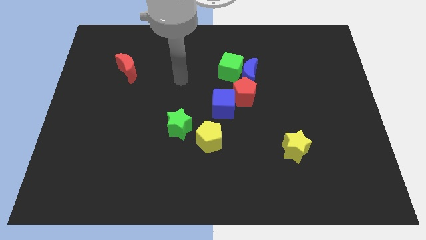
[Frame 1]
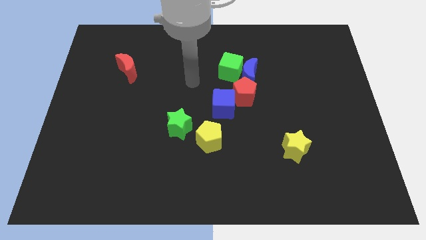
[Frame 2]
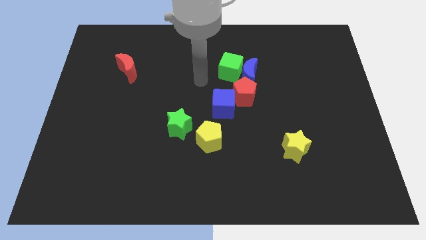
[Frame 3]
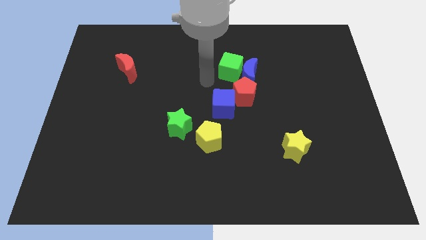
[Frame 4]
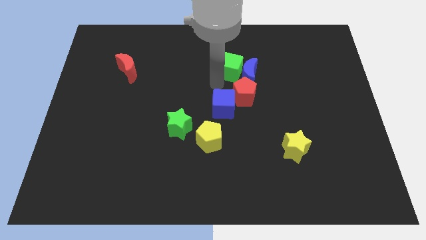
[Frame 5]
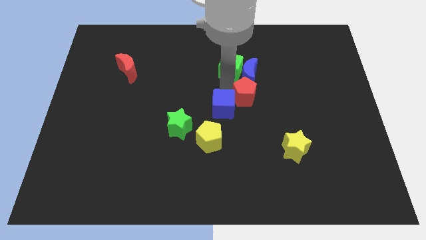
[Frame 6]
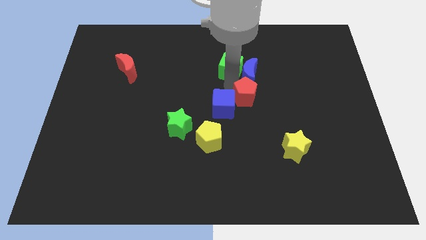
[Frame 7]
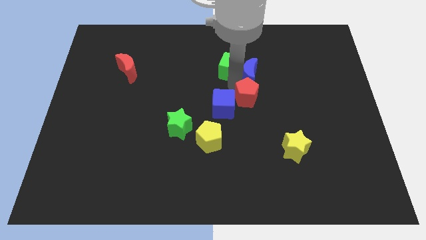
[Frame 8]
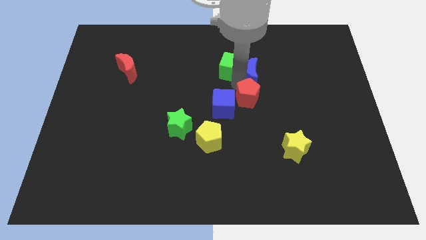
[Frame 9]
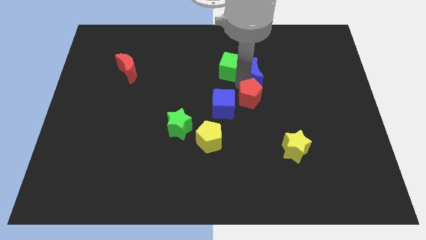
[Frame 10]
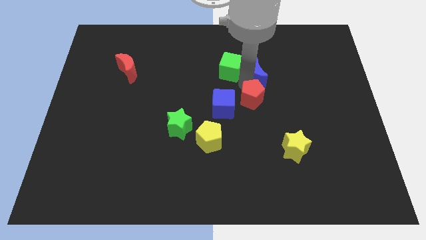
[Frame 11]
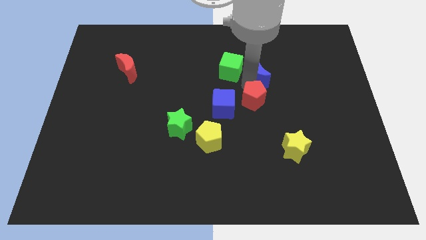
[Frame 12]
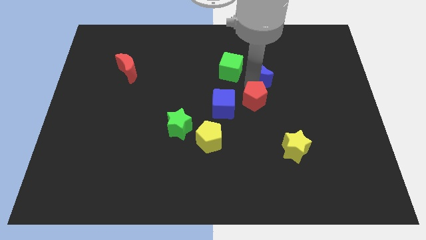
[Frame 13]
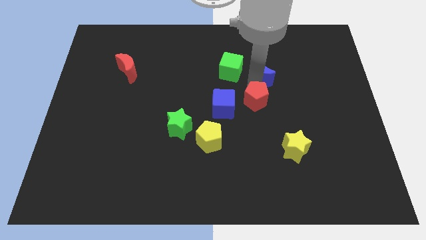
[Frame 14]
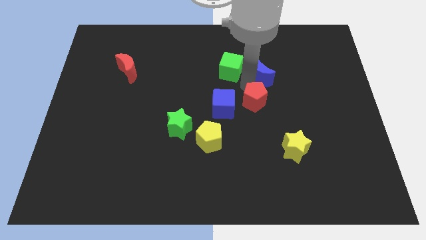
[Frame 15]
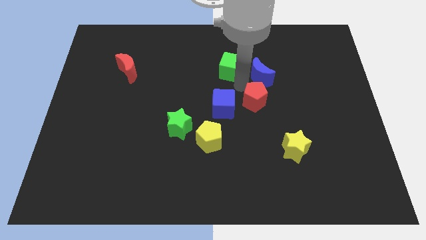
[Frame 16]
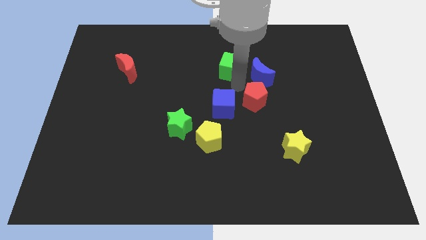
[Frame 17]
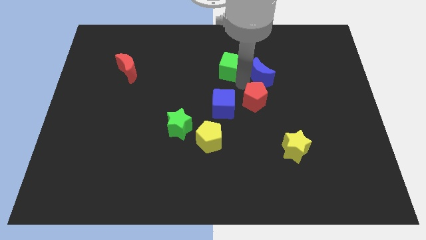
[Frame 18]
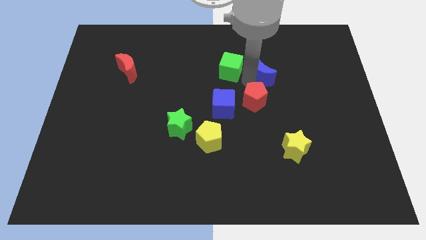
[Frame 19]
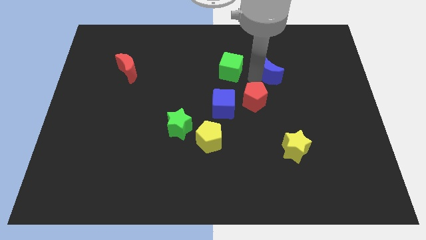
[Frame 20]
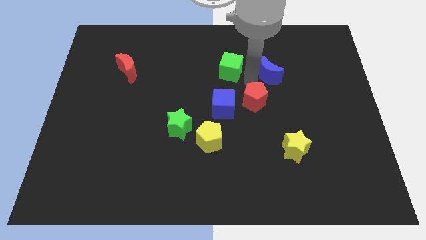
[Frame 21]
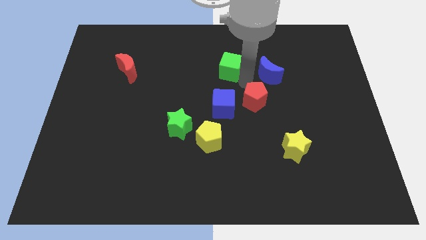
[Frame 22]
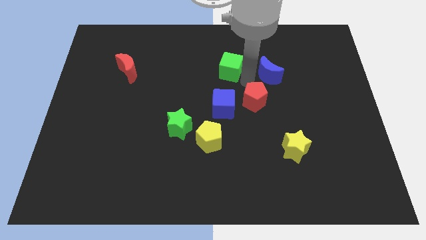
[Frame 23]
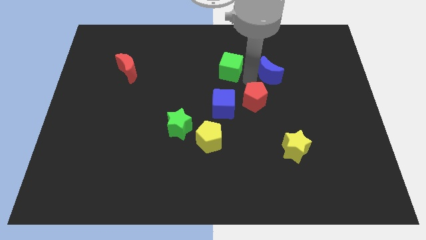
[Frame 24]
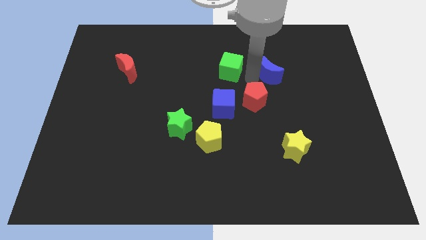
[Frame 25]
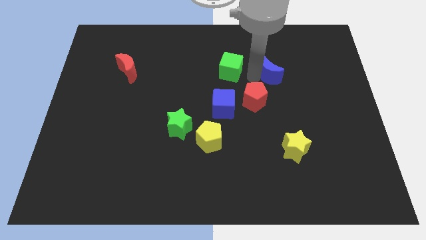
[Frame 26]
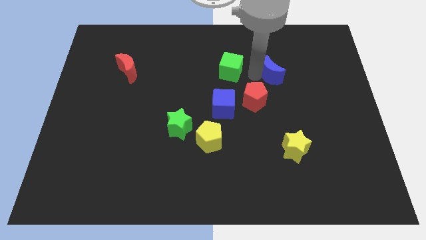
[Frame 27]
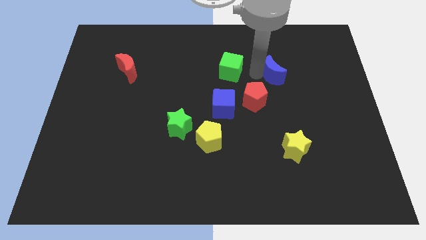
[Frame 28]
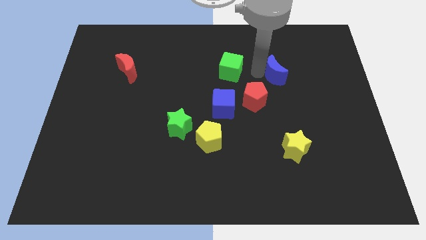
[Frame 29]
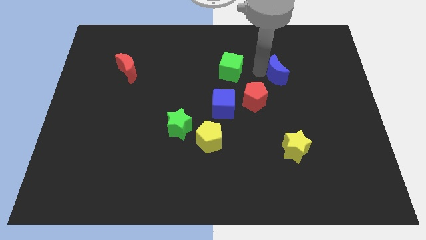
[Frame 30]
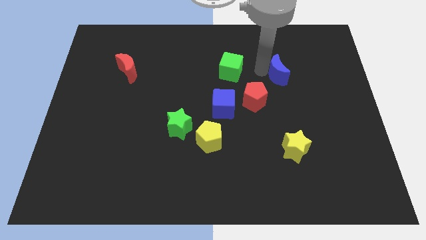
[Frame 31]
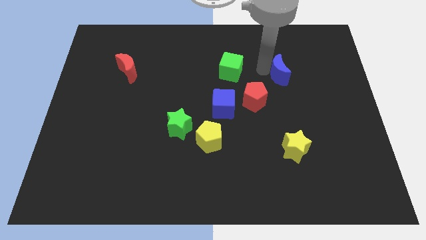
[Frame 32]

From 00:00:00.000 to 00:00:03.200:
separate the blue moon from the green cube and red pentagon

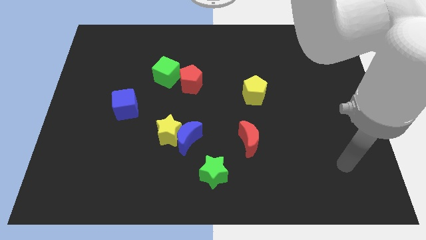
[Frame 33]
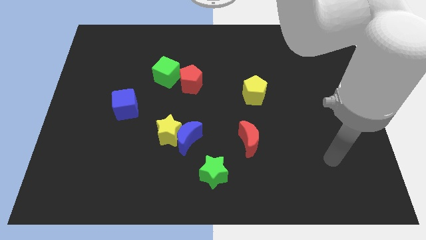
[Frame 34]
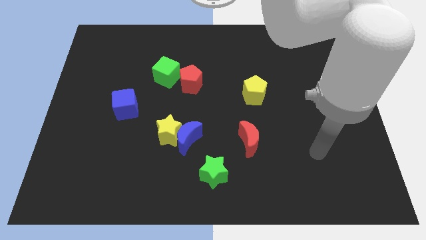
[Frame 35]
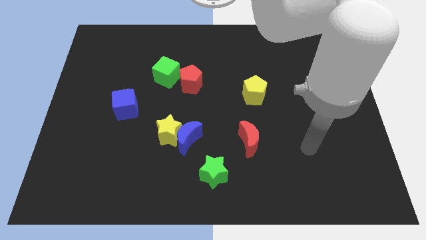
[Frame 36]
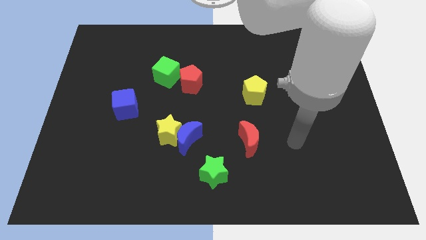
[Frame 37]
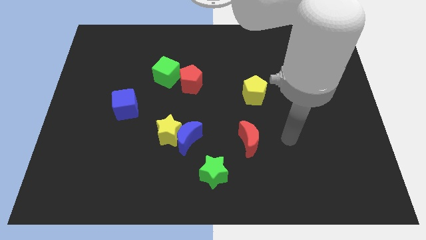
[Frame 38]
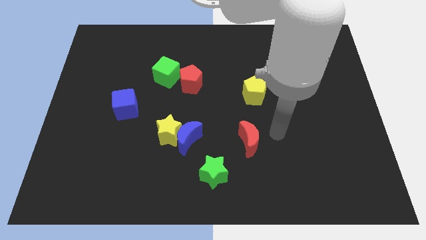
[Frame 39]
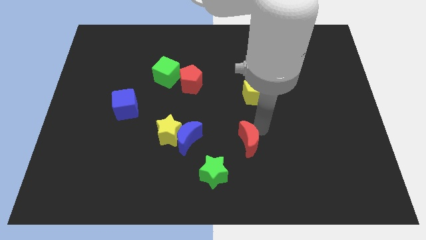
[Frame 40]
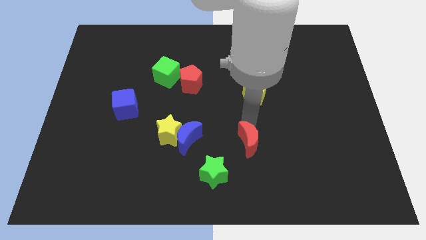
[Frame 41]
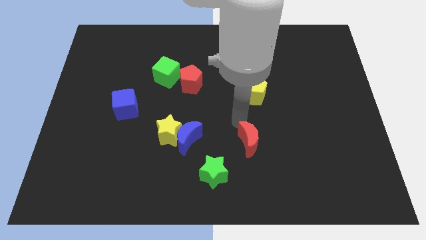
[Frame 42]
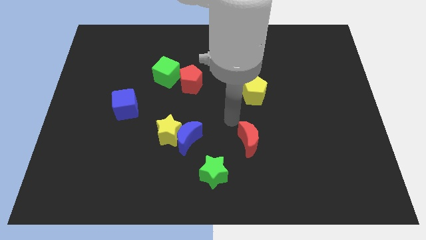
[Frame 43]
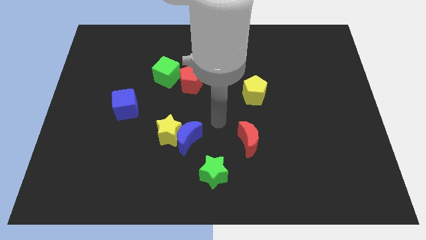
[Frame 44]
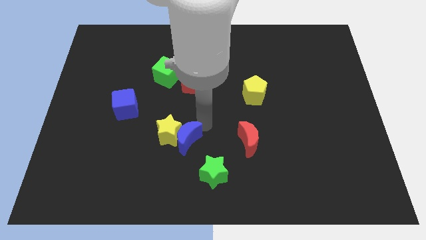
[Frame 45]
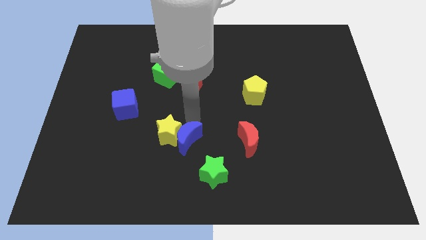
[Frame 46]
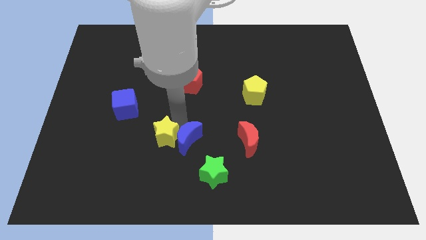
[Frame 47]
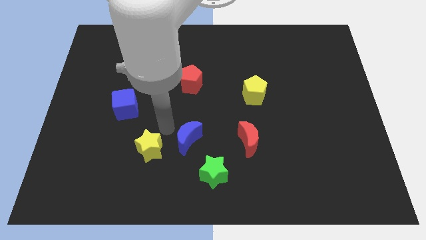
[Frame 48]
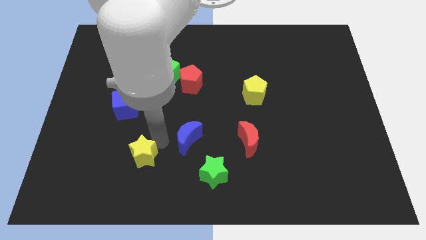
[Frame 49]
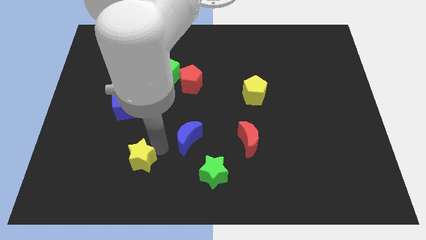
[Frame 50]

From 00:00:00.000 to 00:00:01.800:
separate the blue moon from the yellow star

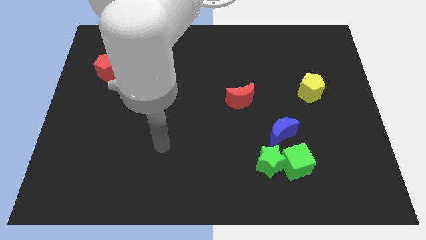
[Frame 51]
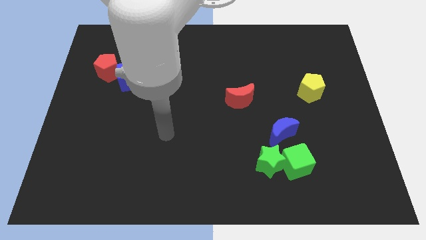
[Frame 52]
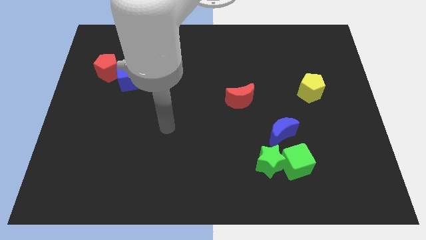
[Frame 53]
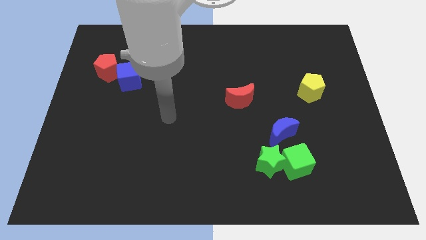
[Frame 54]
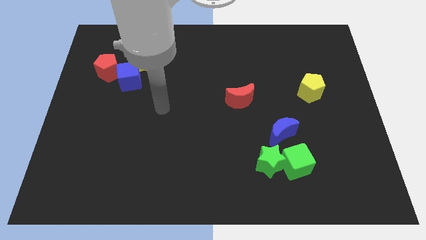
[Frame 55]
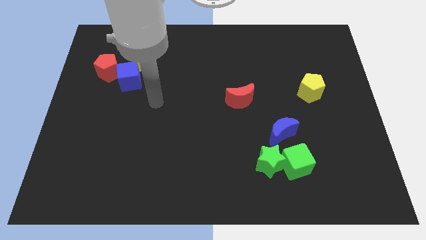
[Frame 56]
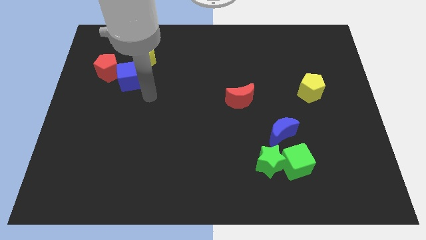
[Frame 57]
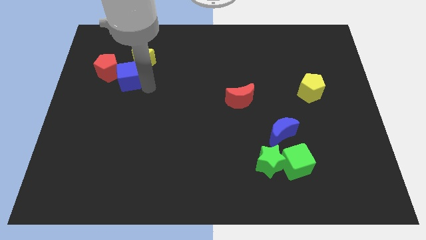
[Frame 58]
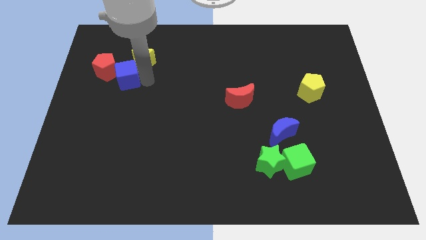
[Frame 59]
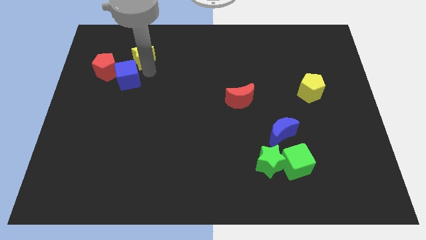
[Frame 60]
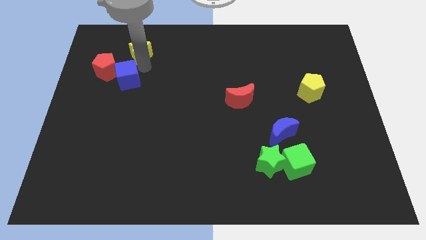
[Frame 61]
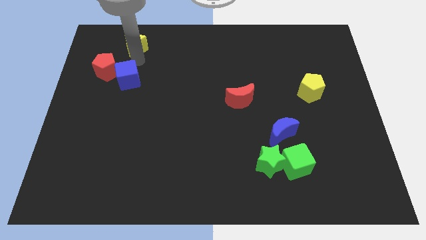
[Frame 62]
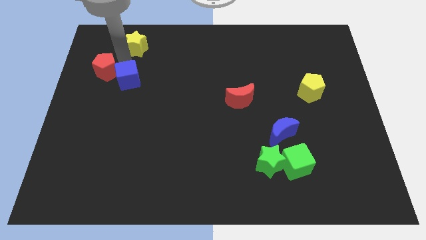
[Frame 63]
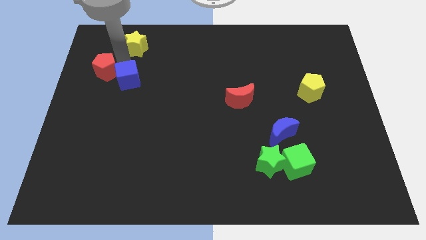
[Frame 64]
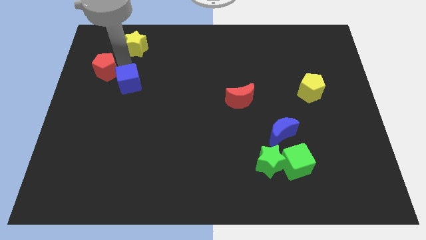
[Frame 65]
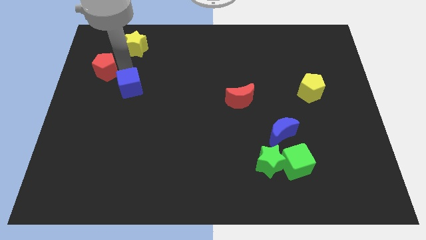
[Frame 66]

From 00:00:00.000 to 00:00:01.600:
pull the blue cube apart from the red pentagon and yellow star

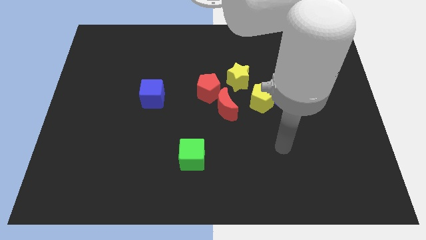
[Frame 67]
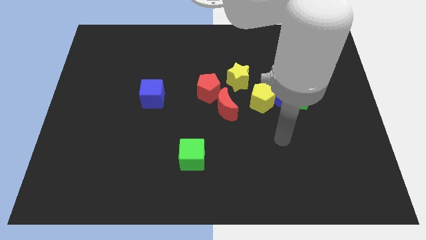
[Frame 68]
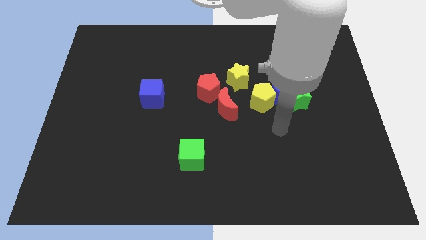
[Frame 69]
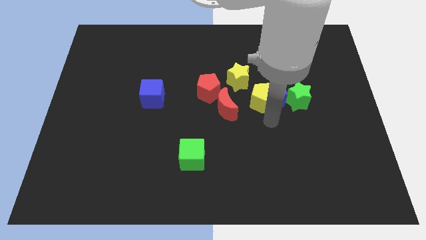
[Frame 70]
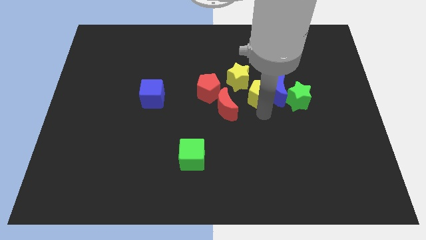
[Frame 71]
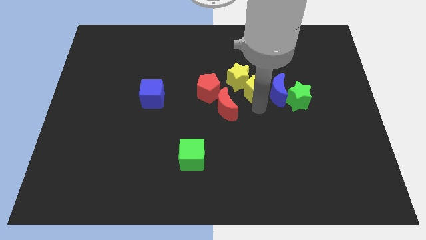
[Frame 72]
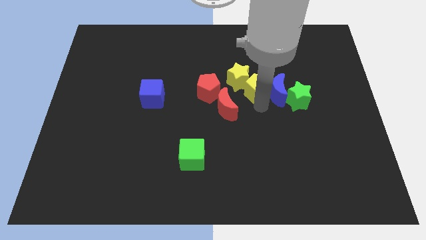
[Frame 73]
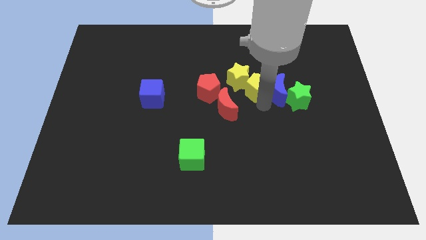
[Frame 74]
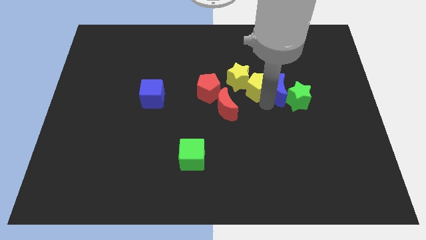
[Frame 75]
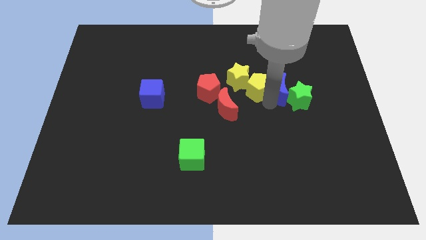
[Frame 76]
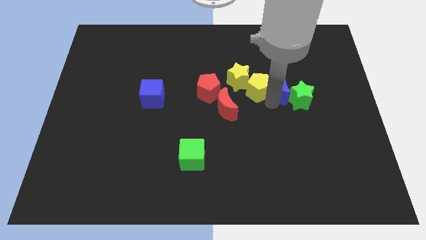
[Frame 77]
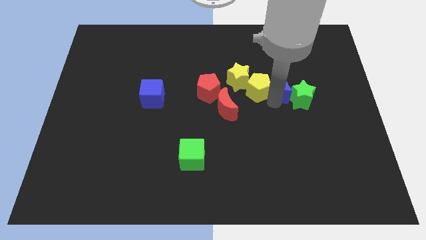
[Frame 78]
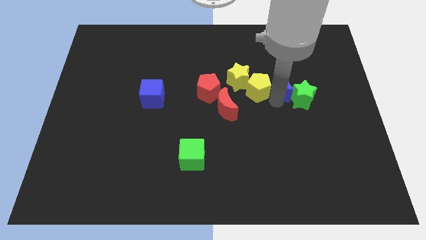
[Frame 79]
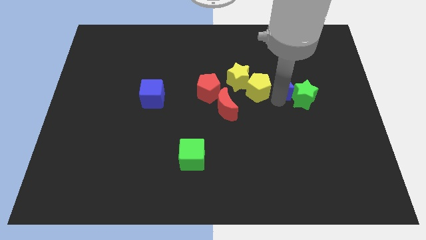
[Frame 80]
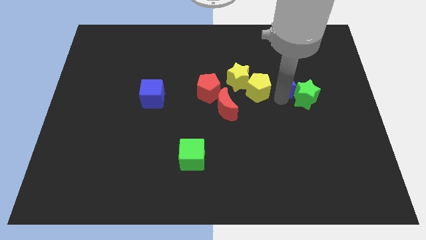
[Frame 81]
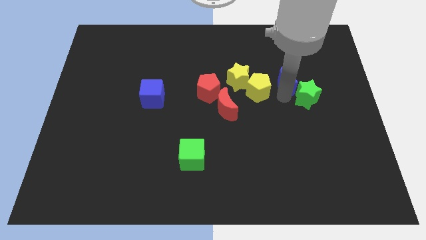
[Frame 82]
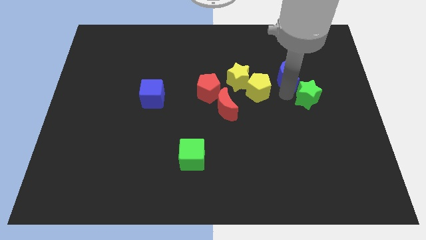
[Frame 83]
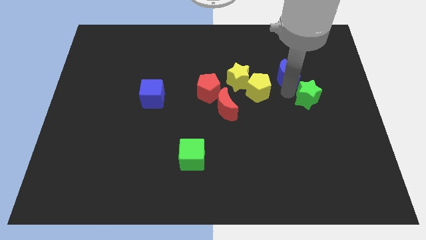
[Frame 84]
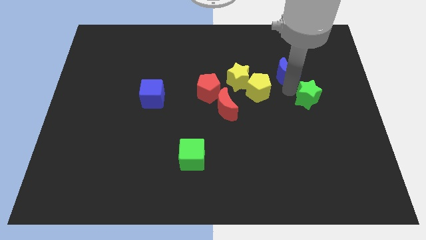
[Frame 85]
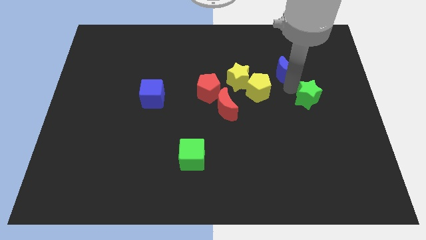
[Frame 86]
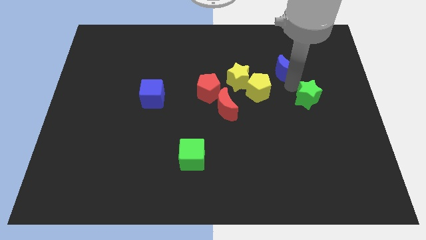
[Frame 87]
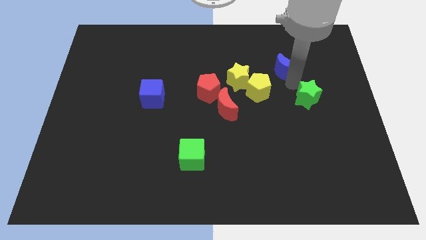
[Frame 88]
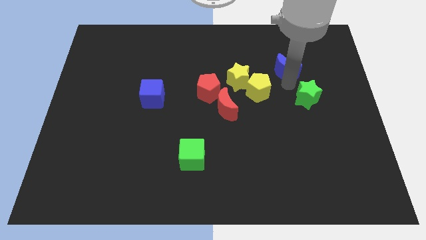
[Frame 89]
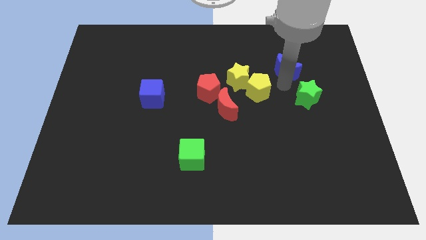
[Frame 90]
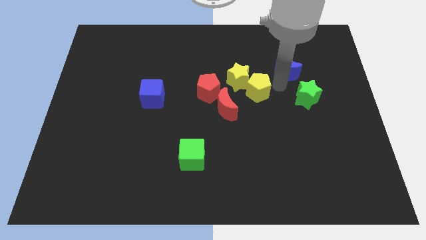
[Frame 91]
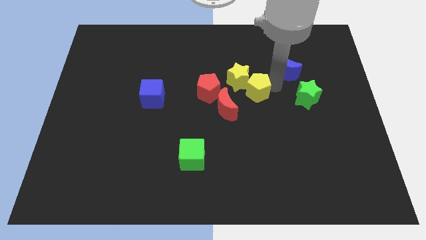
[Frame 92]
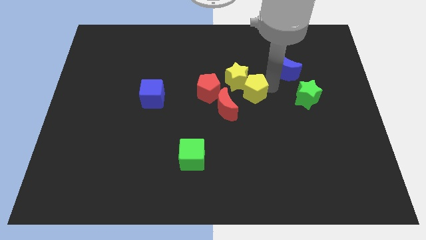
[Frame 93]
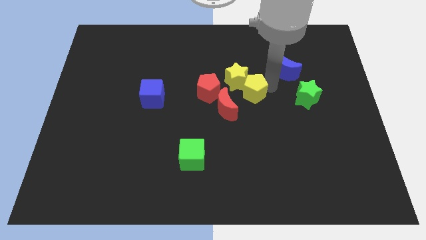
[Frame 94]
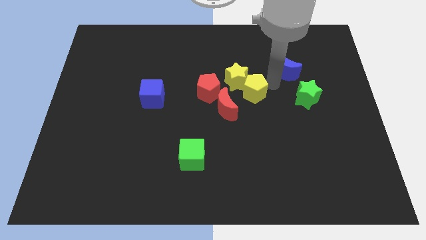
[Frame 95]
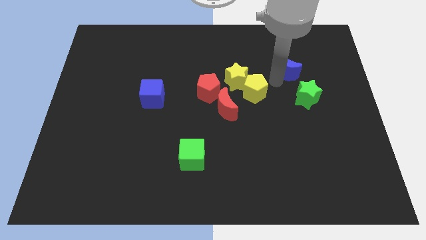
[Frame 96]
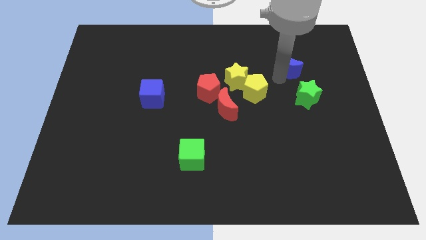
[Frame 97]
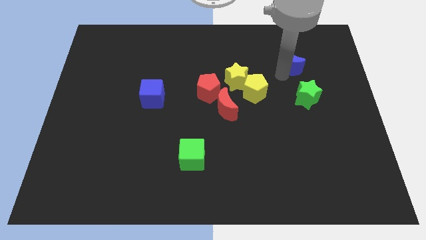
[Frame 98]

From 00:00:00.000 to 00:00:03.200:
pull the blue moon apart from the yellow pentagon, green star, and yellow star
